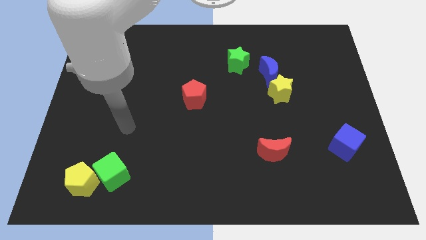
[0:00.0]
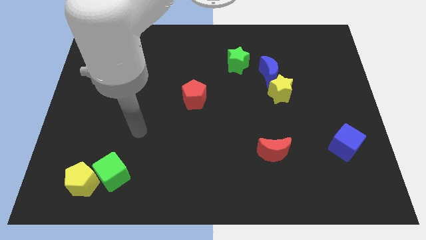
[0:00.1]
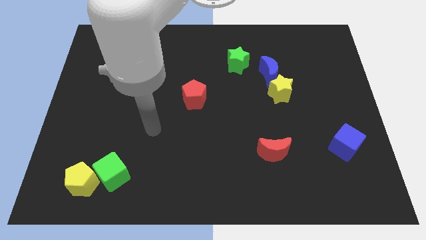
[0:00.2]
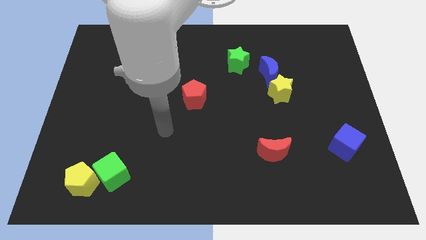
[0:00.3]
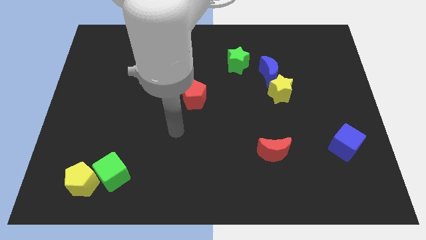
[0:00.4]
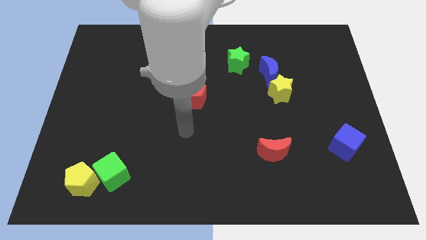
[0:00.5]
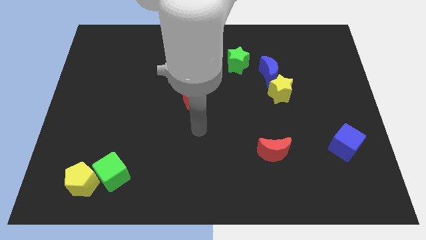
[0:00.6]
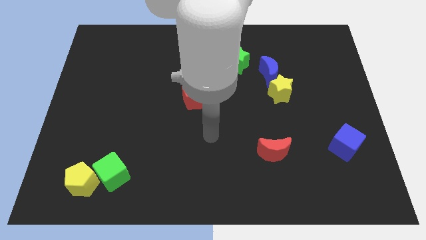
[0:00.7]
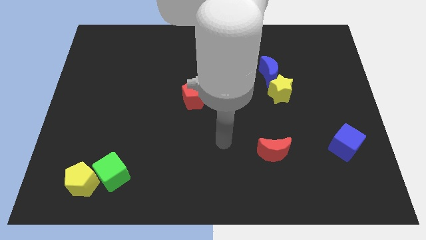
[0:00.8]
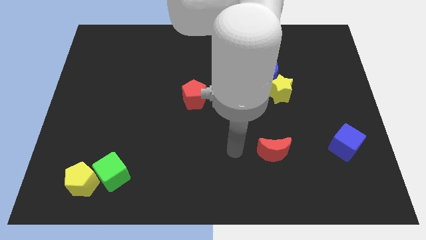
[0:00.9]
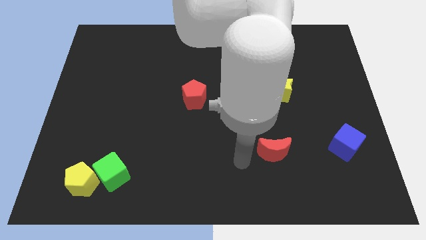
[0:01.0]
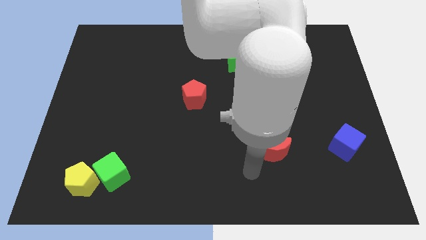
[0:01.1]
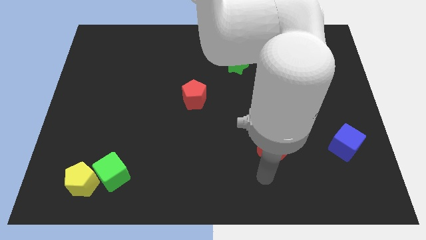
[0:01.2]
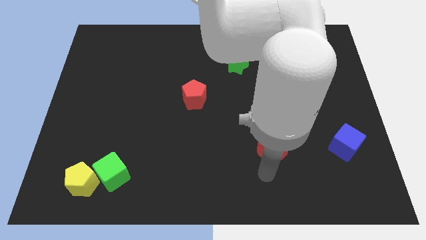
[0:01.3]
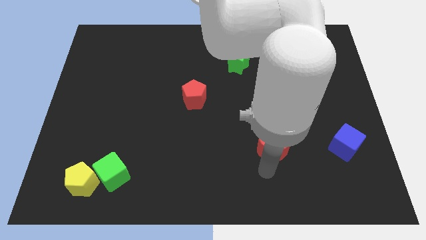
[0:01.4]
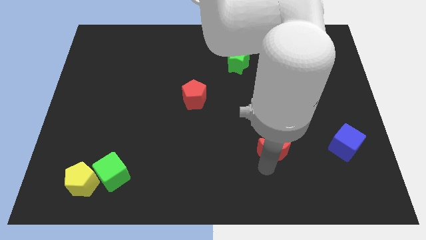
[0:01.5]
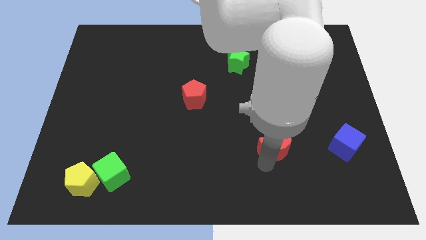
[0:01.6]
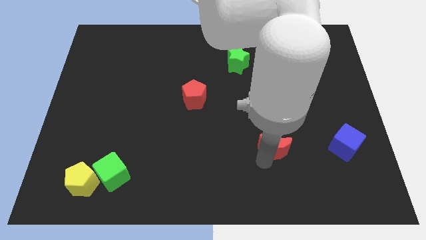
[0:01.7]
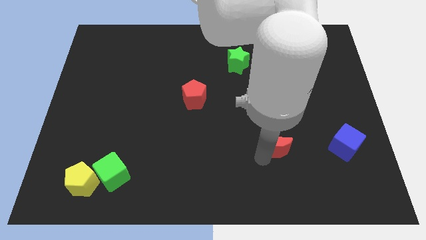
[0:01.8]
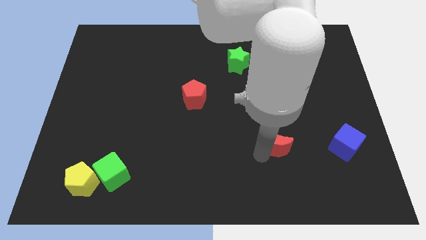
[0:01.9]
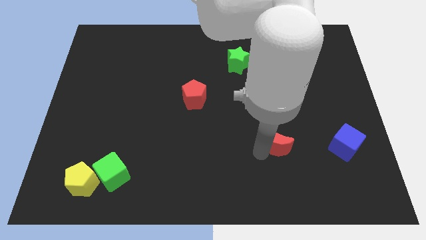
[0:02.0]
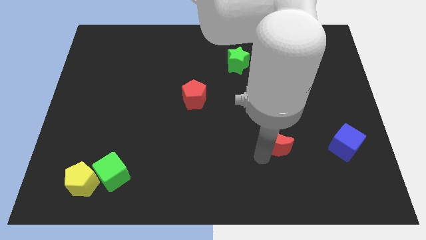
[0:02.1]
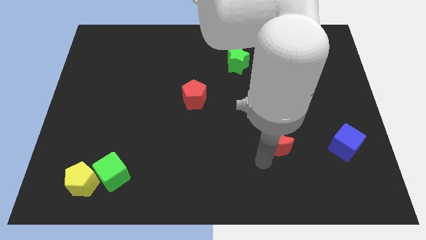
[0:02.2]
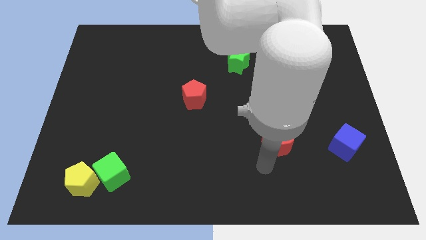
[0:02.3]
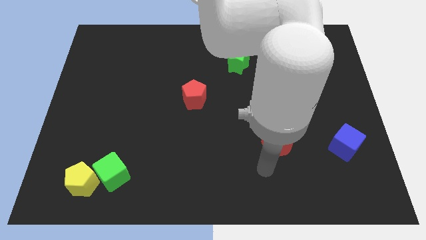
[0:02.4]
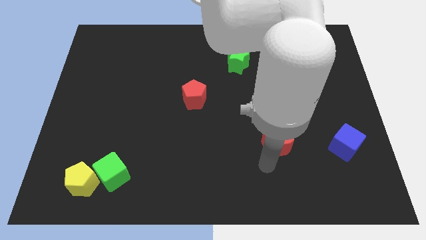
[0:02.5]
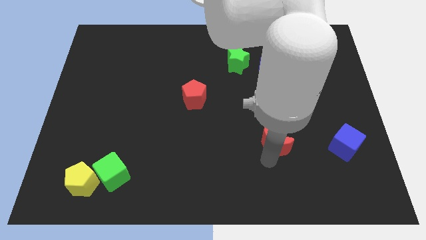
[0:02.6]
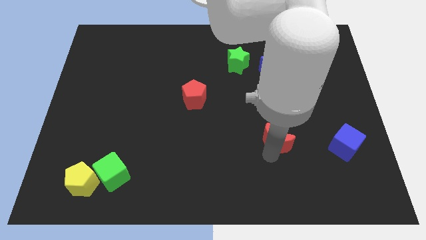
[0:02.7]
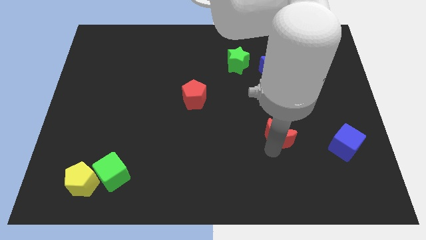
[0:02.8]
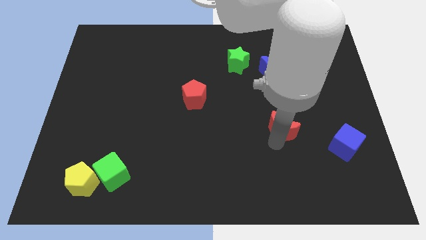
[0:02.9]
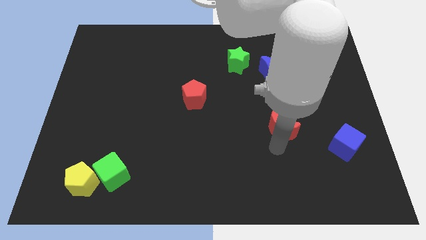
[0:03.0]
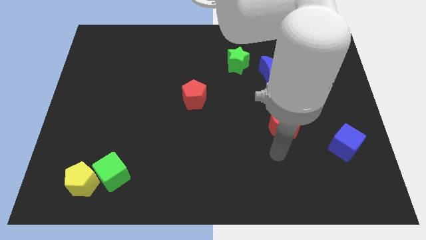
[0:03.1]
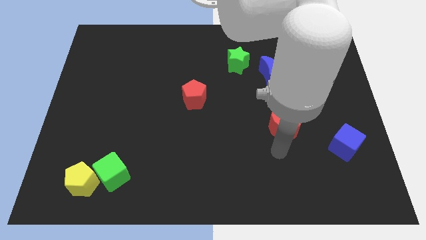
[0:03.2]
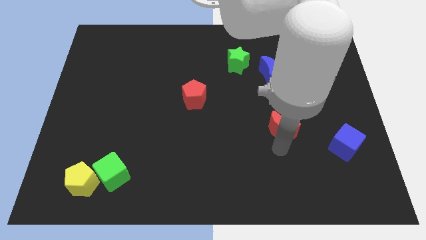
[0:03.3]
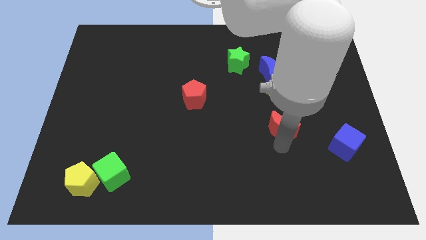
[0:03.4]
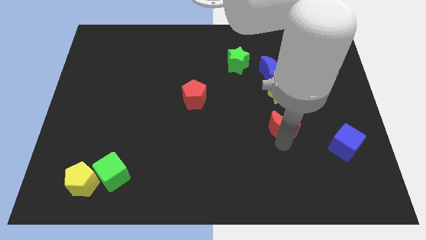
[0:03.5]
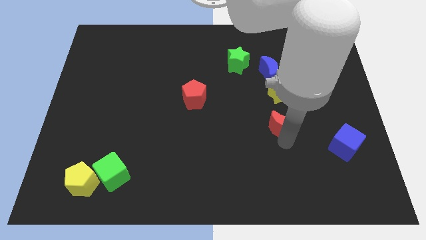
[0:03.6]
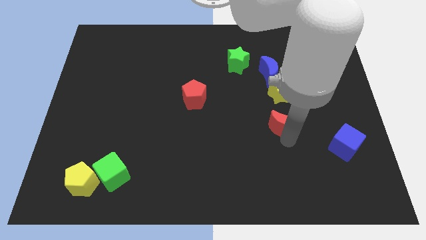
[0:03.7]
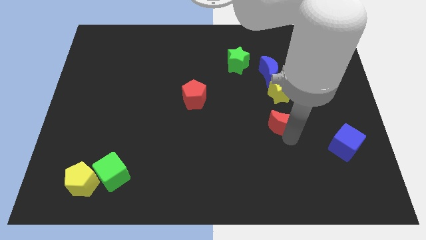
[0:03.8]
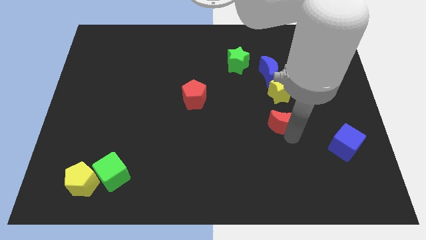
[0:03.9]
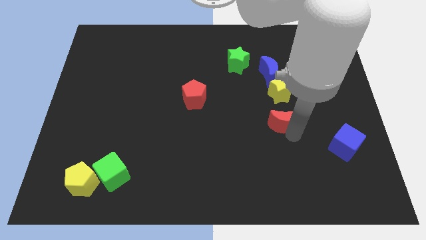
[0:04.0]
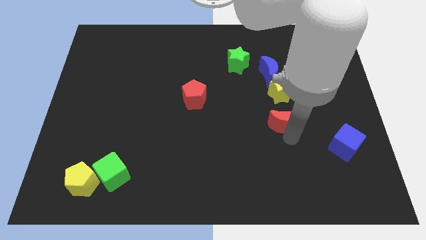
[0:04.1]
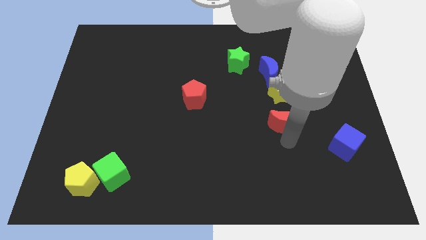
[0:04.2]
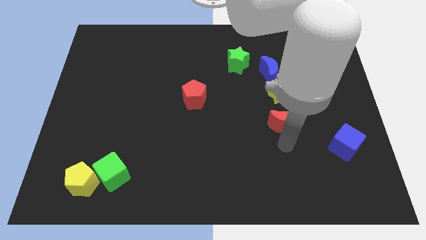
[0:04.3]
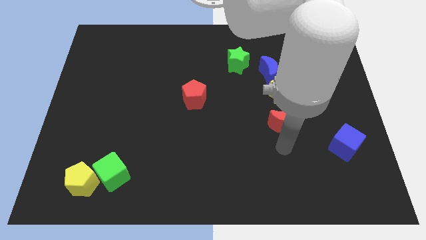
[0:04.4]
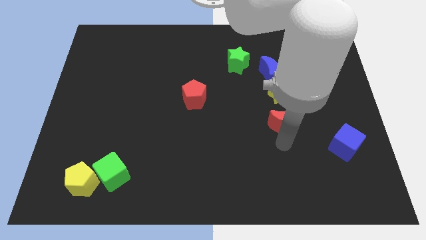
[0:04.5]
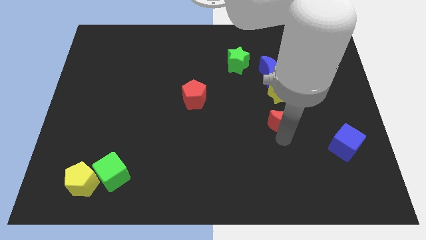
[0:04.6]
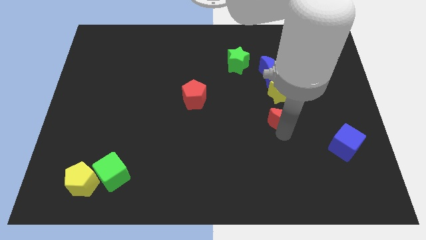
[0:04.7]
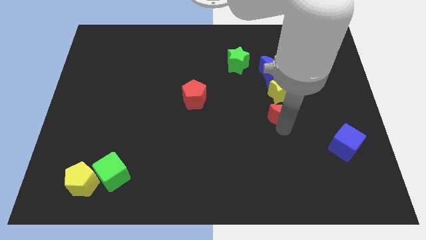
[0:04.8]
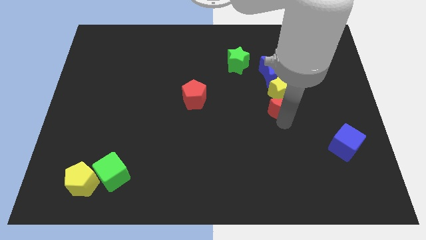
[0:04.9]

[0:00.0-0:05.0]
slide the red moon next to the yellow star

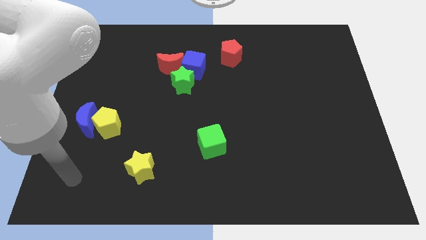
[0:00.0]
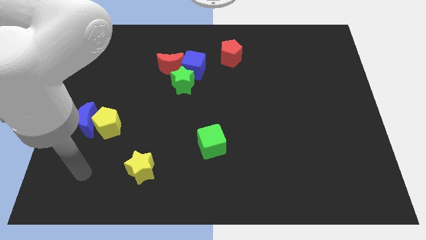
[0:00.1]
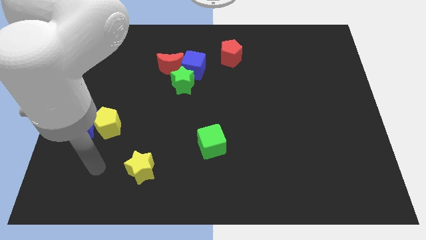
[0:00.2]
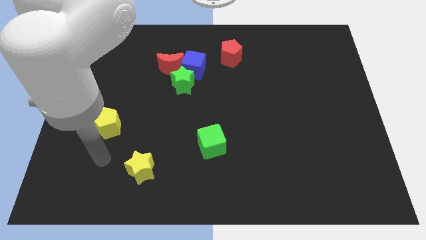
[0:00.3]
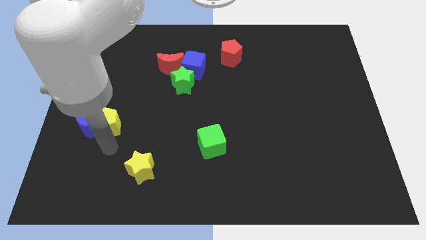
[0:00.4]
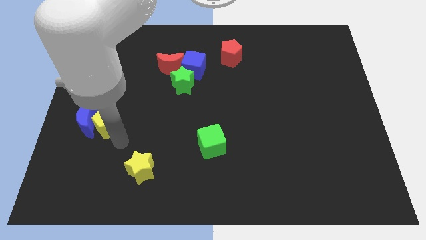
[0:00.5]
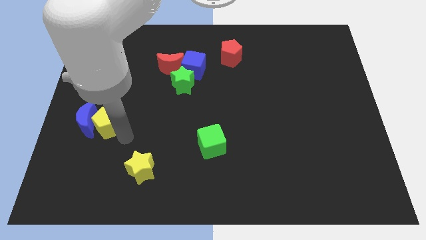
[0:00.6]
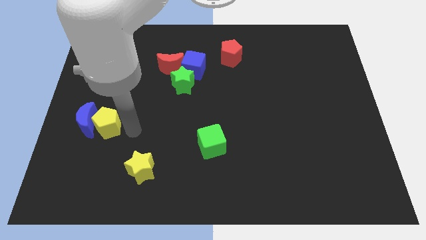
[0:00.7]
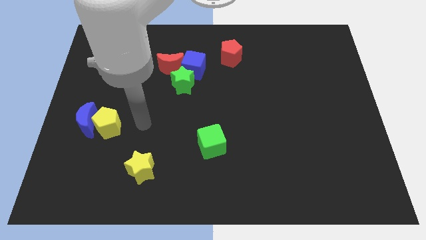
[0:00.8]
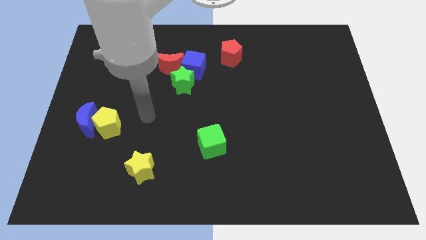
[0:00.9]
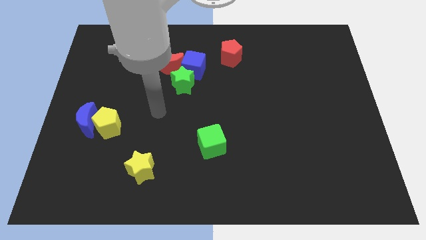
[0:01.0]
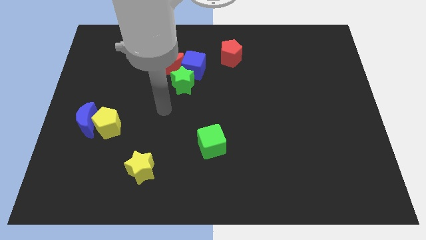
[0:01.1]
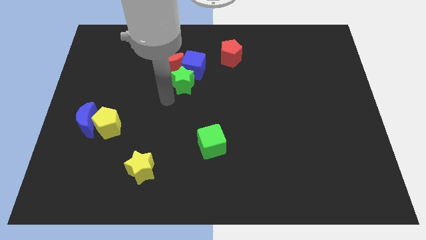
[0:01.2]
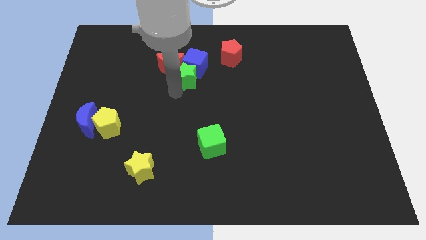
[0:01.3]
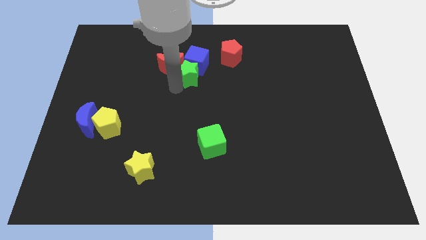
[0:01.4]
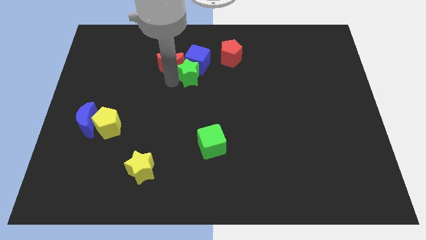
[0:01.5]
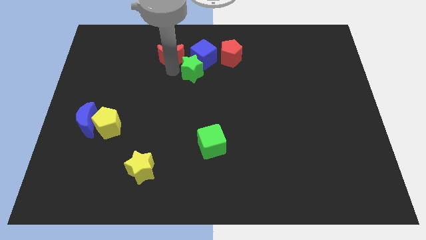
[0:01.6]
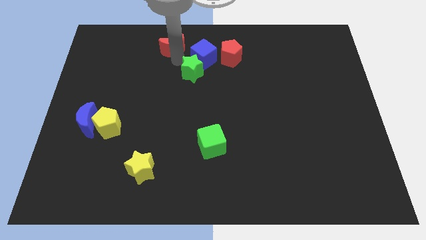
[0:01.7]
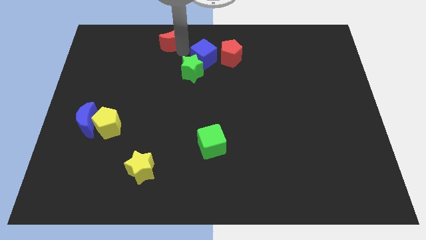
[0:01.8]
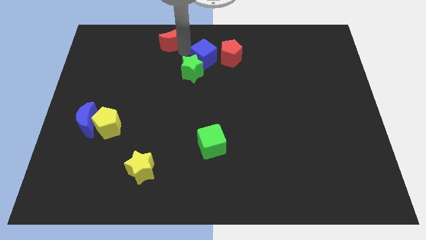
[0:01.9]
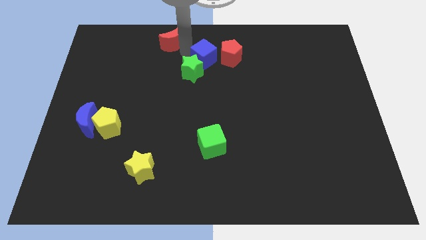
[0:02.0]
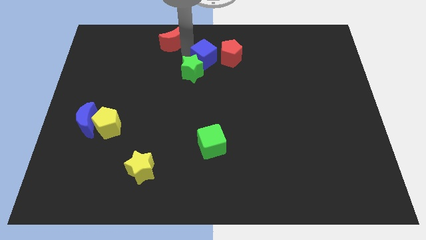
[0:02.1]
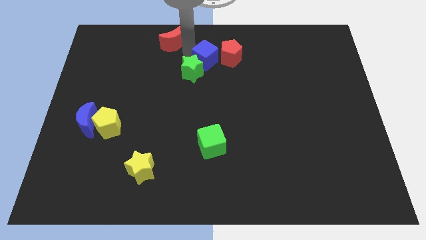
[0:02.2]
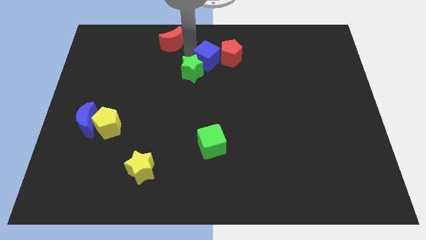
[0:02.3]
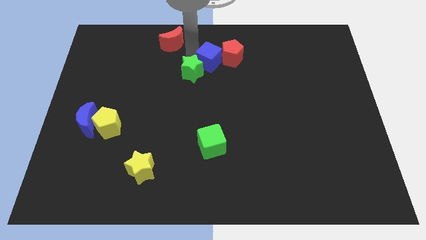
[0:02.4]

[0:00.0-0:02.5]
slide the blue cube close to the red pentagon
